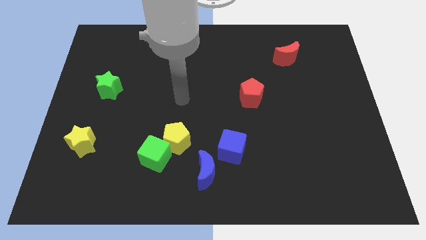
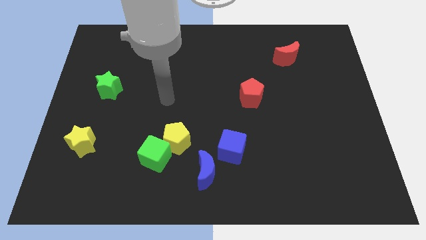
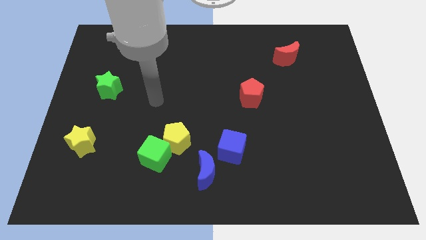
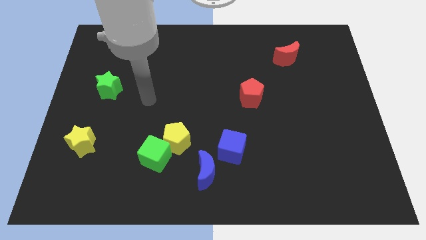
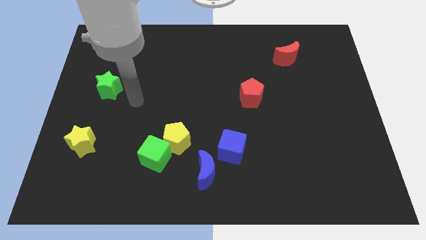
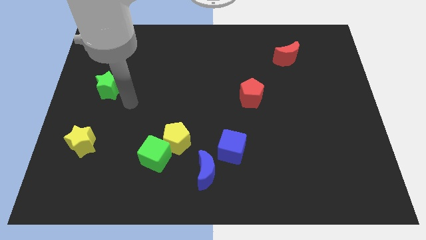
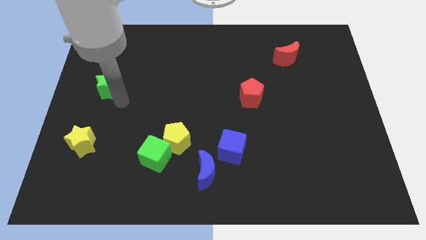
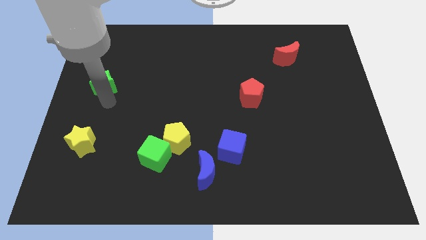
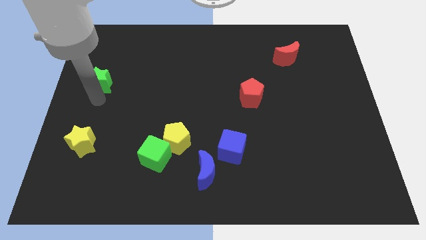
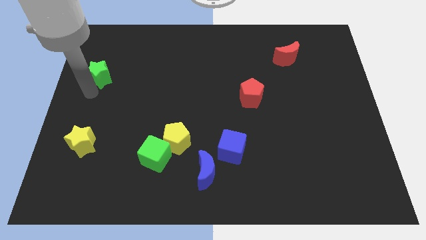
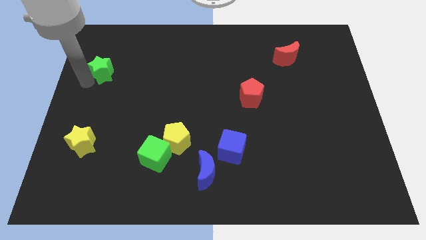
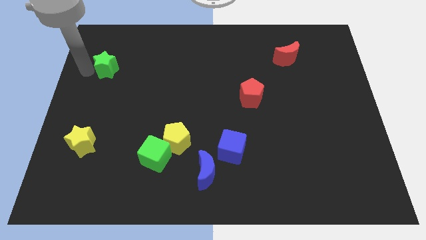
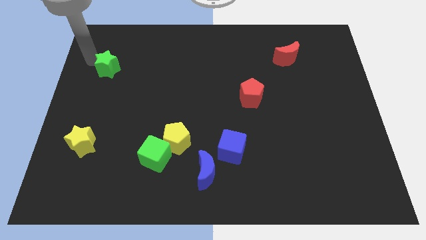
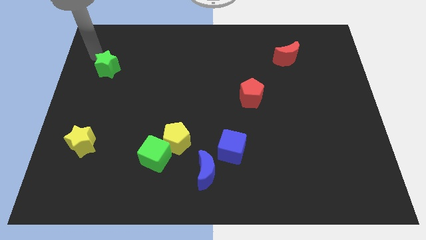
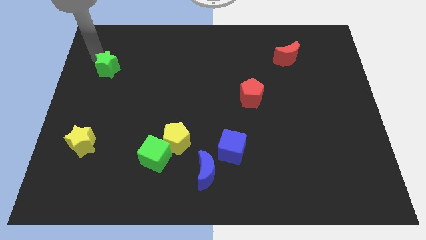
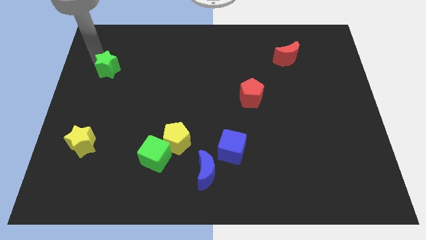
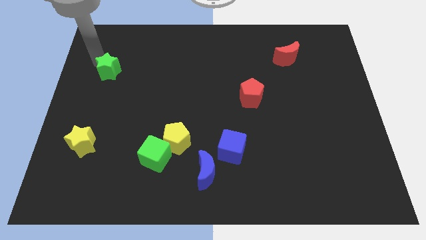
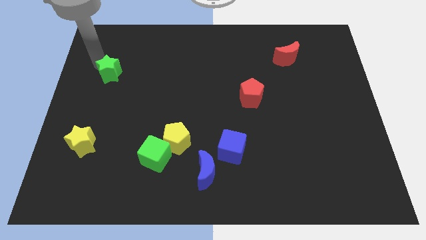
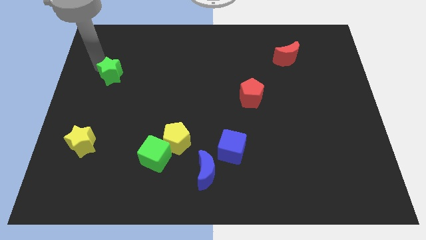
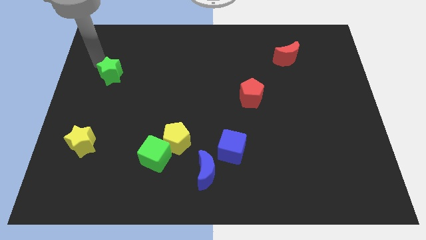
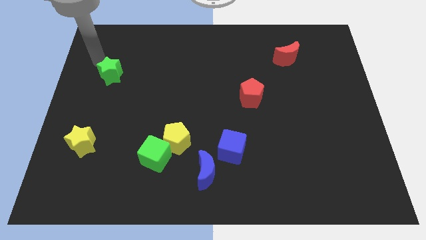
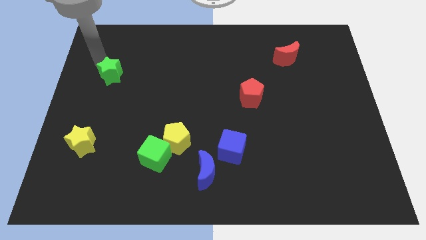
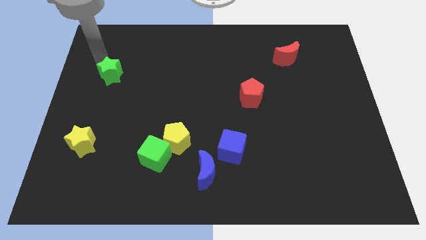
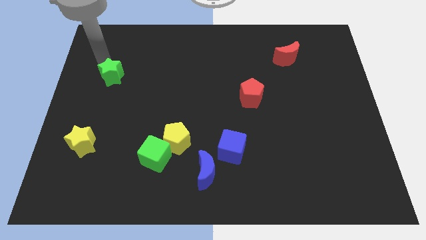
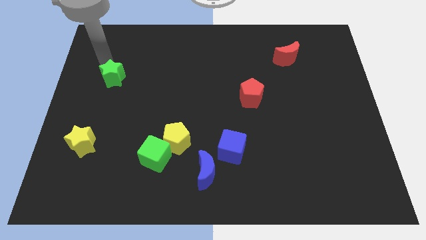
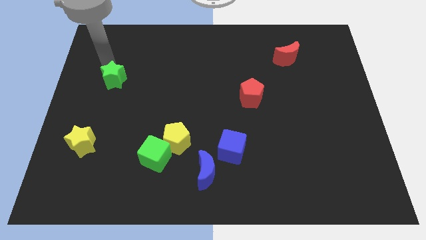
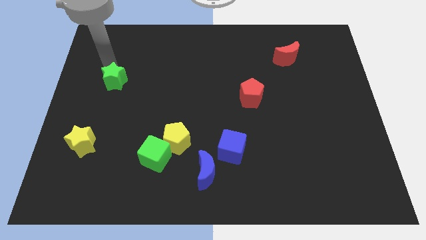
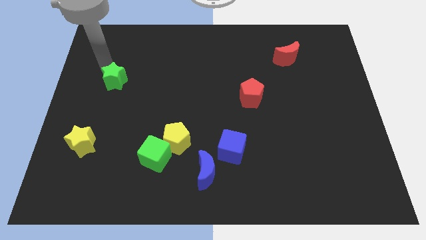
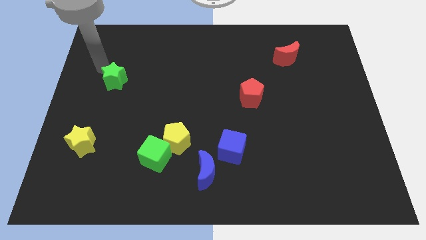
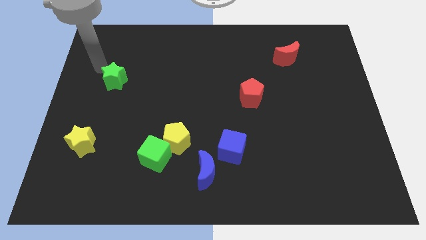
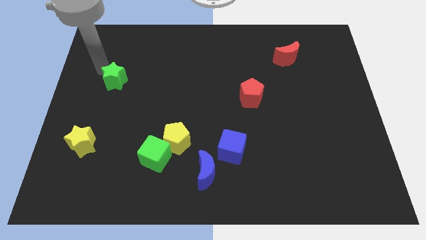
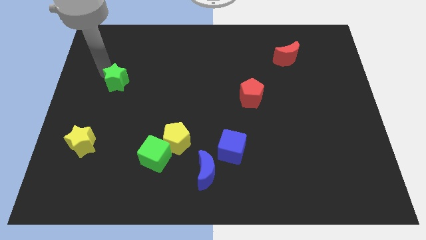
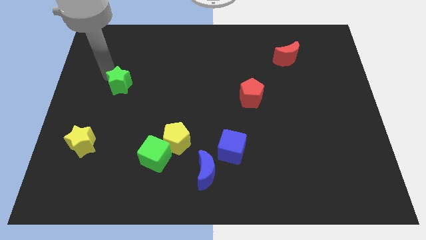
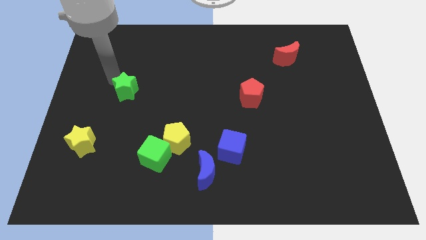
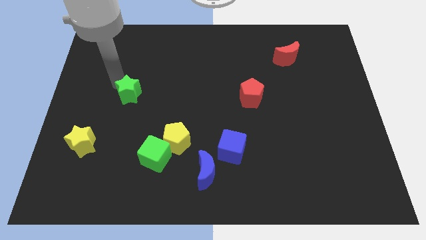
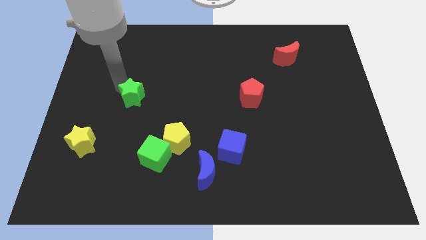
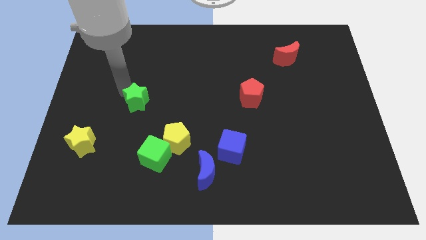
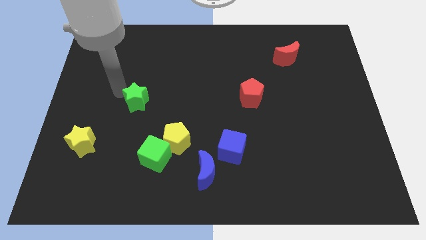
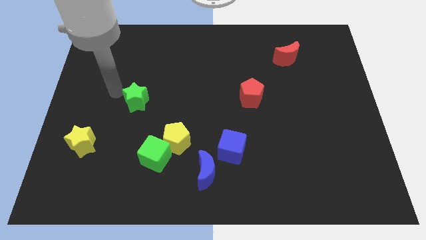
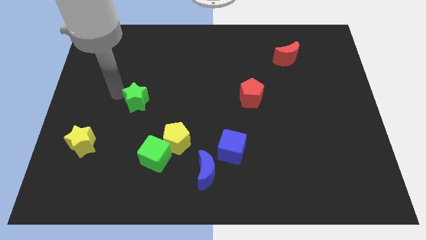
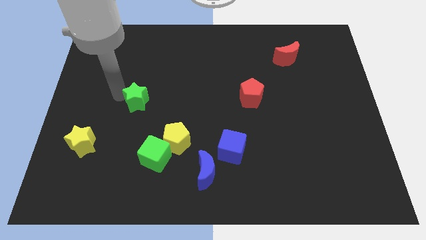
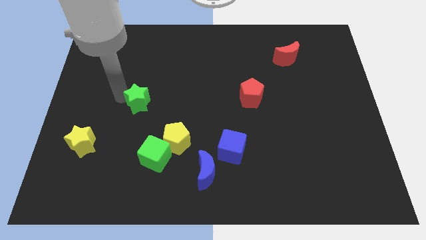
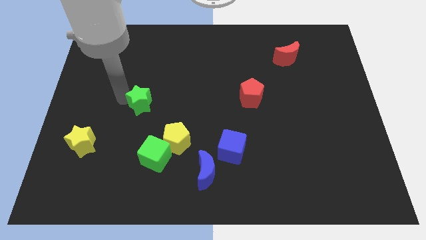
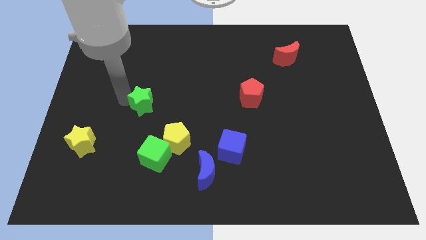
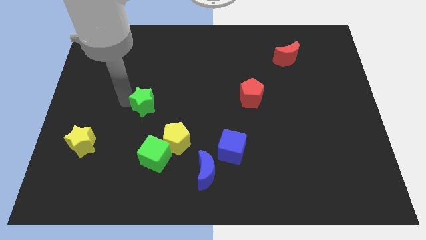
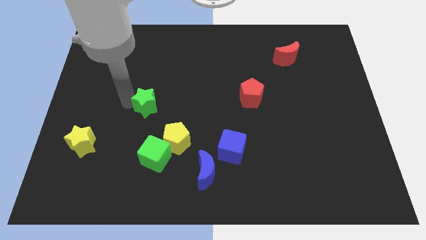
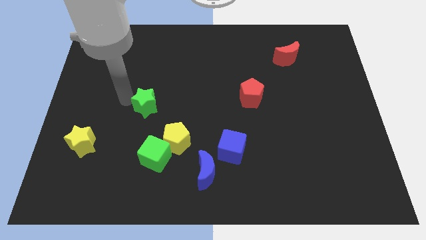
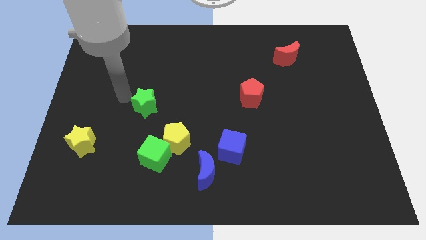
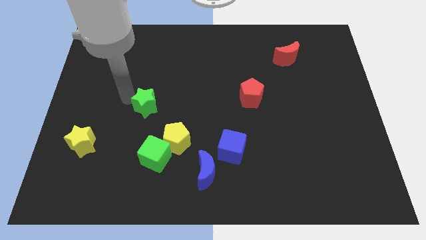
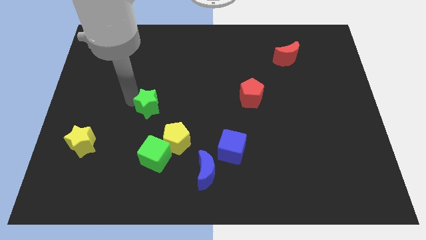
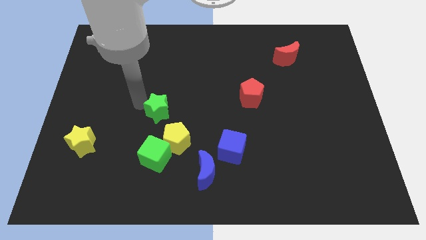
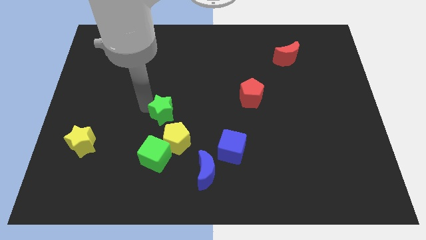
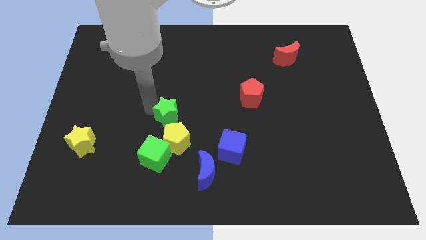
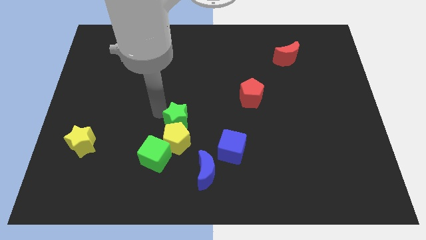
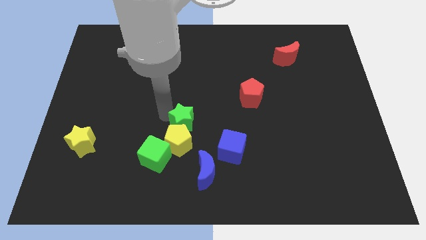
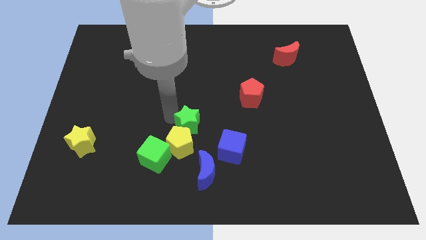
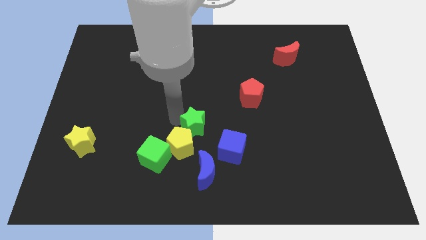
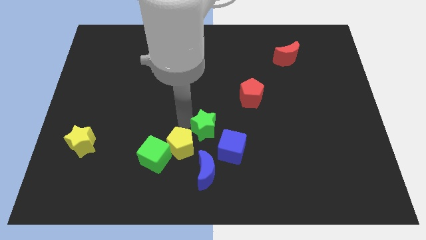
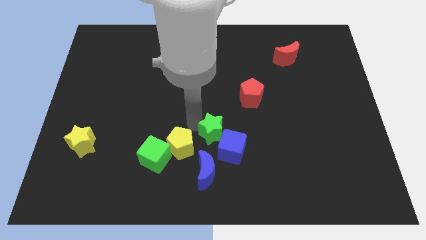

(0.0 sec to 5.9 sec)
push the green star towards the blue cube

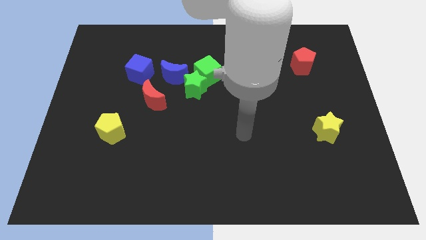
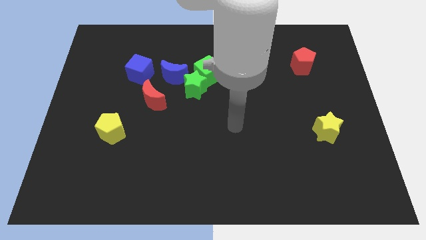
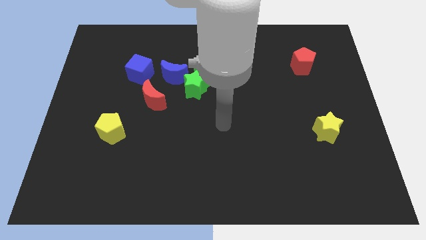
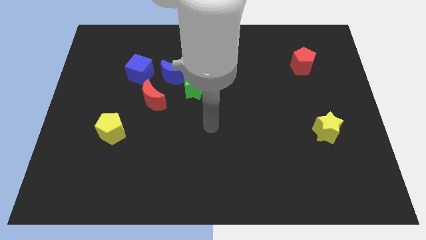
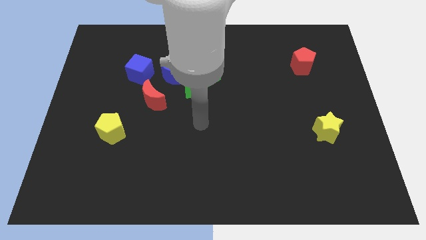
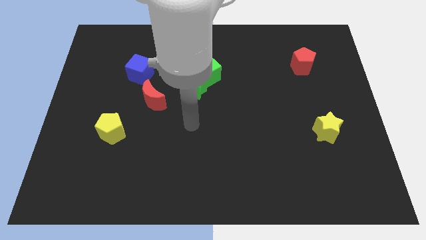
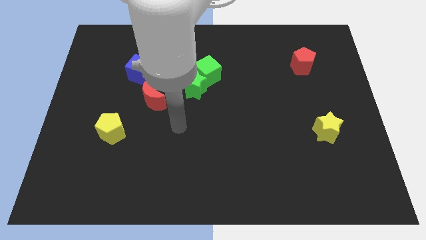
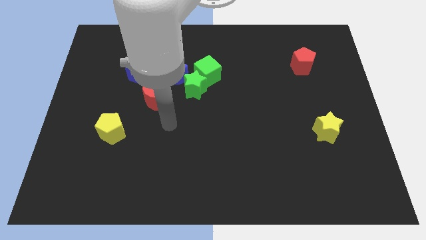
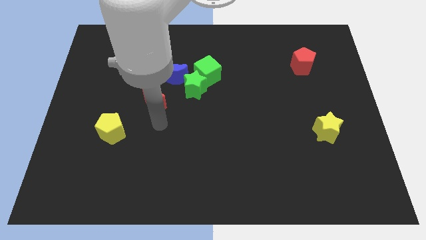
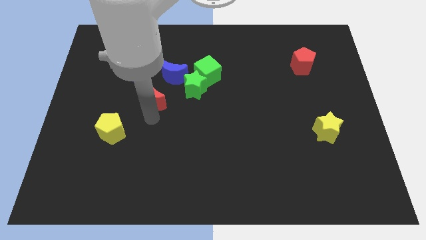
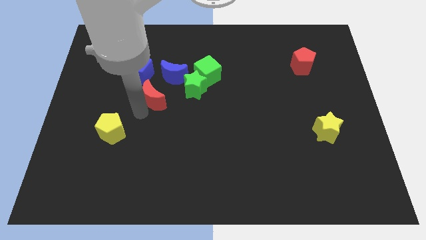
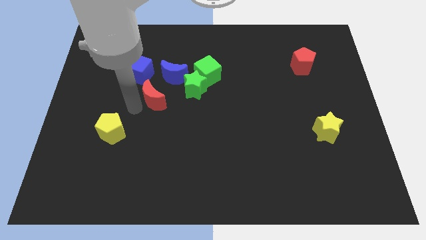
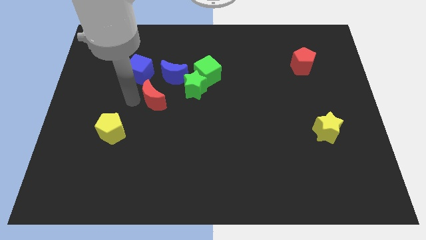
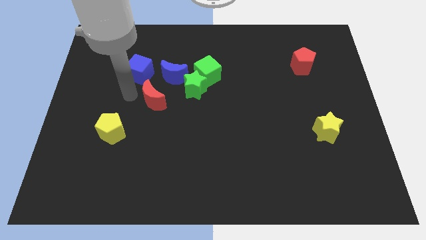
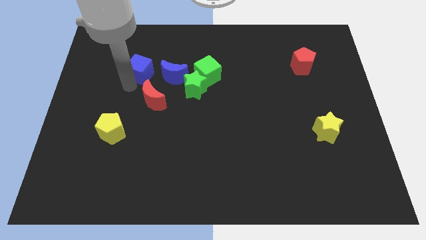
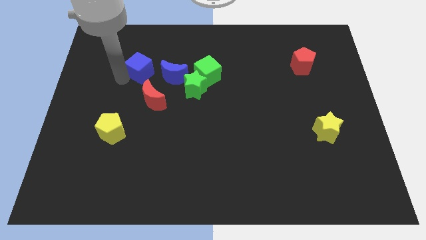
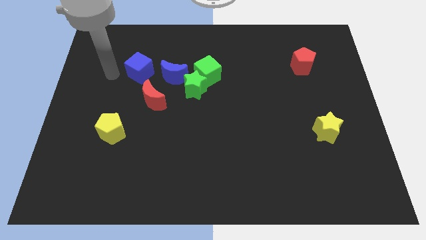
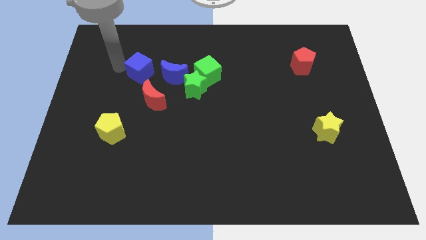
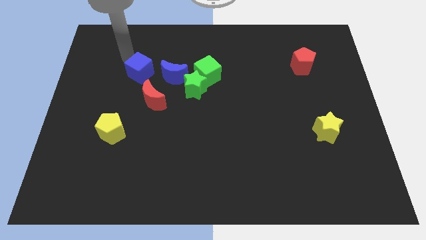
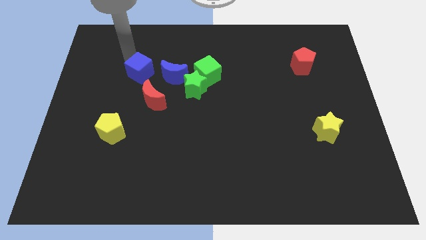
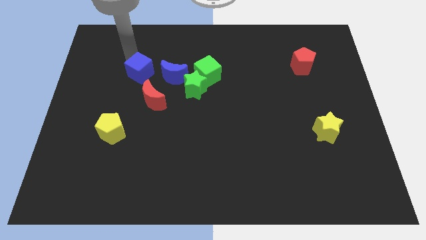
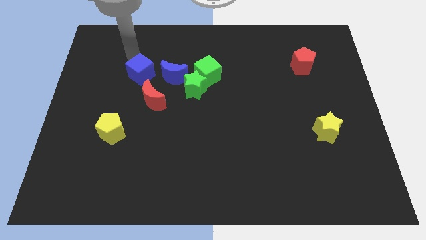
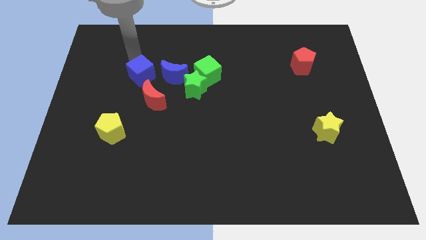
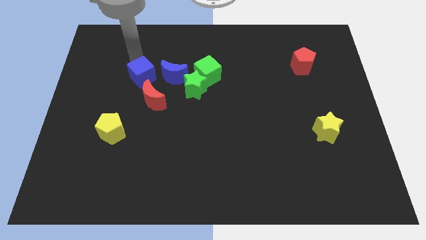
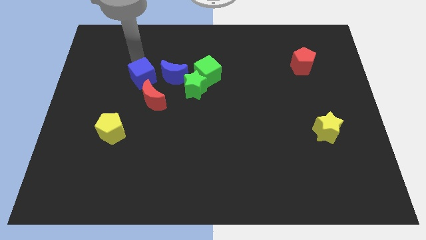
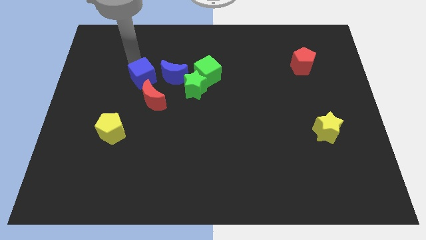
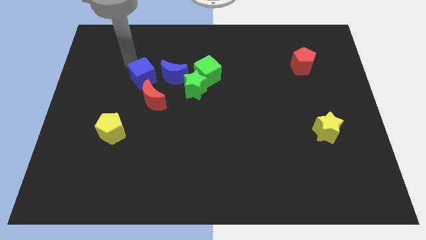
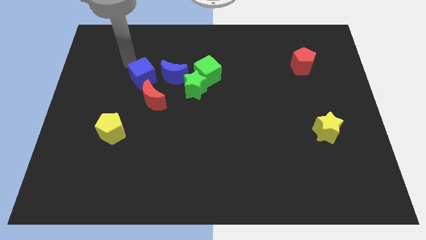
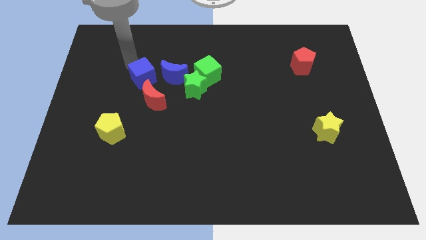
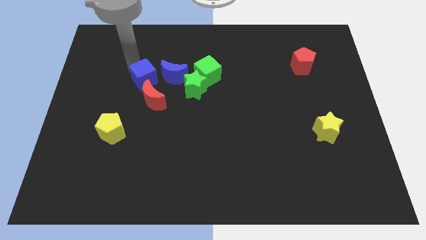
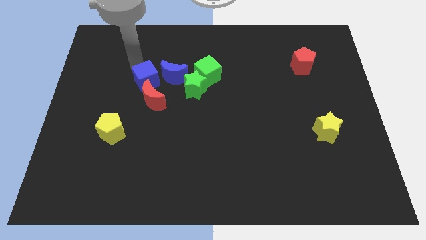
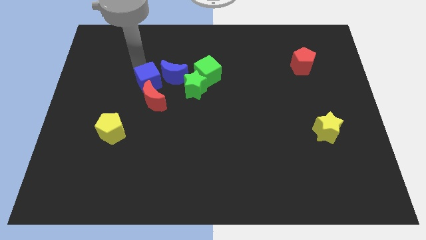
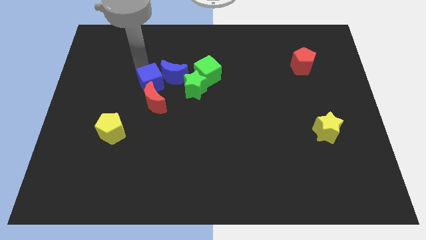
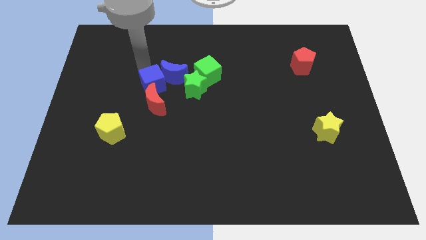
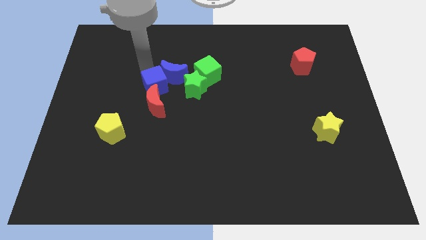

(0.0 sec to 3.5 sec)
put the blue cube close to the red moon
